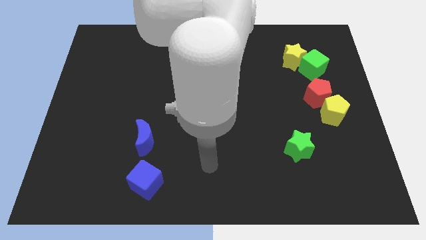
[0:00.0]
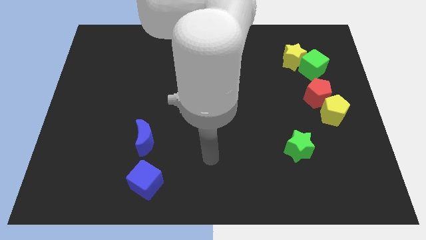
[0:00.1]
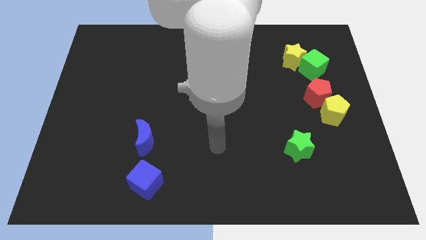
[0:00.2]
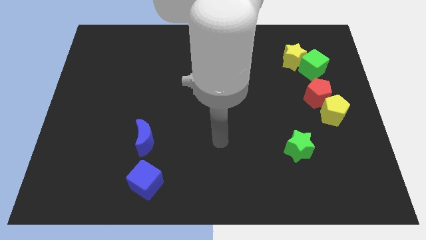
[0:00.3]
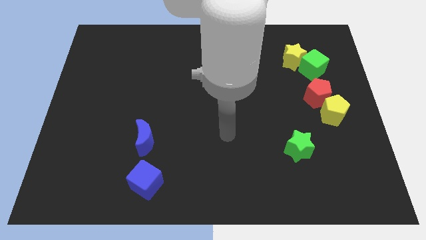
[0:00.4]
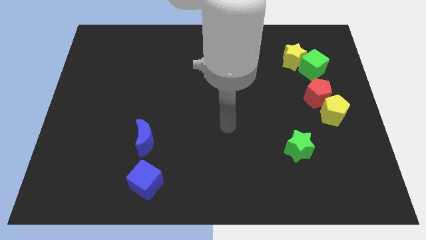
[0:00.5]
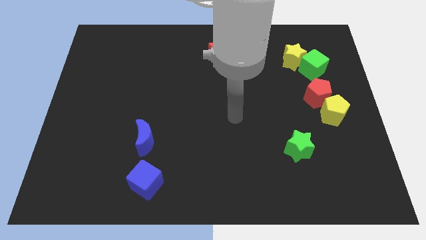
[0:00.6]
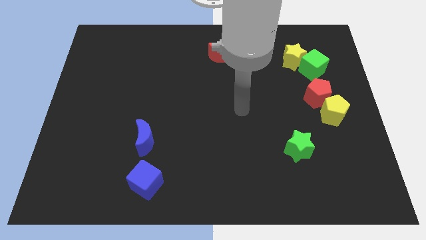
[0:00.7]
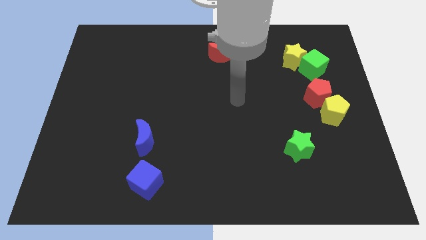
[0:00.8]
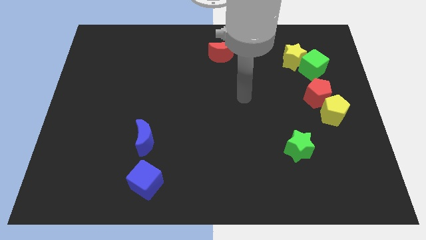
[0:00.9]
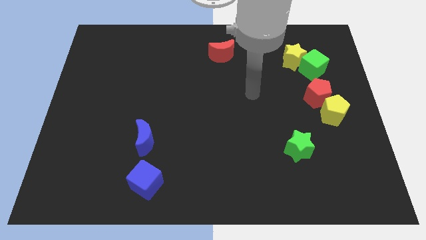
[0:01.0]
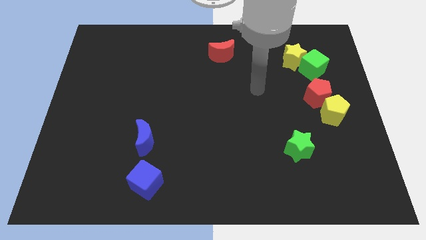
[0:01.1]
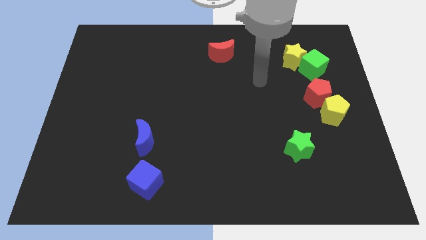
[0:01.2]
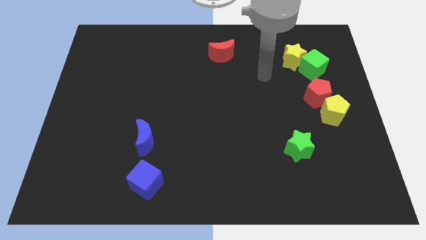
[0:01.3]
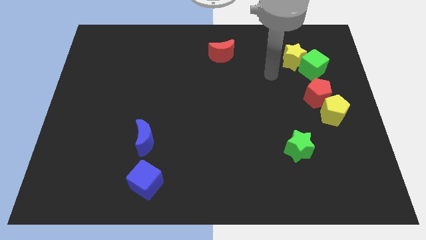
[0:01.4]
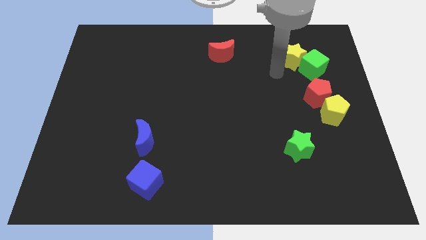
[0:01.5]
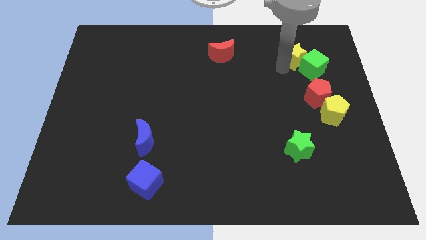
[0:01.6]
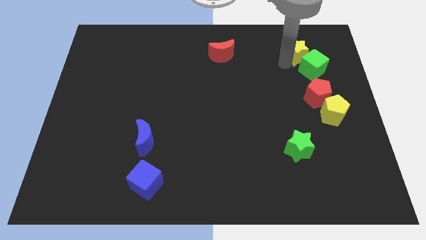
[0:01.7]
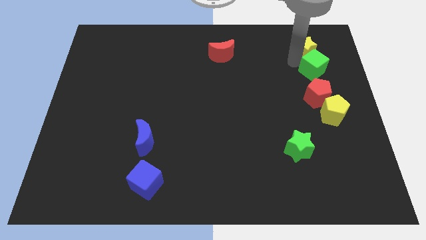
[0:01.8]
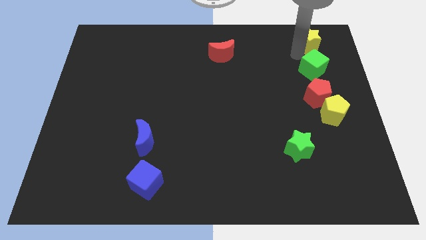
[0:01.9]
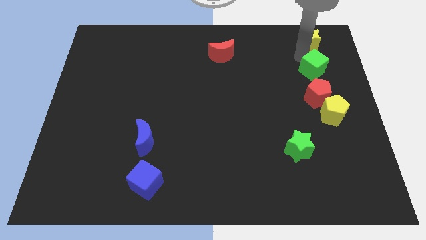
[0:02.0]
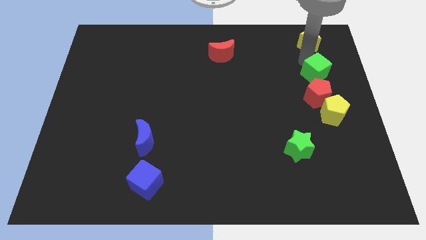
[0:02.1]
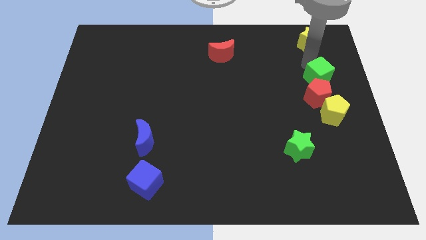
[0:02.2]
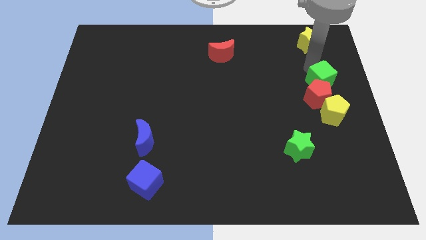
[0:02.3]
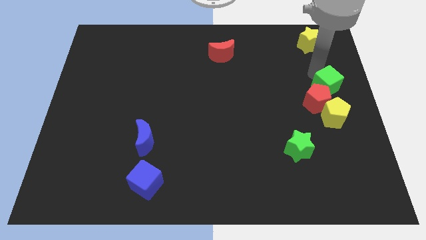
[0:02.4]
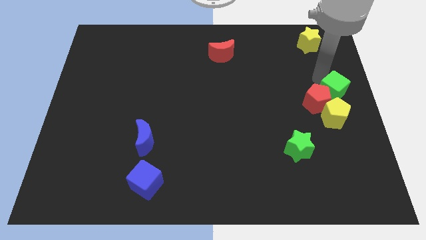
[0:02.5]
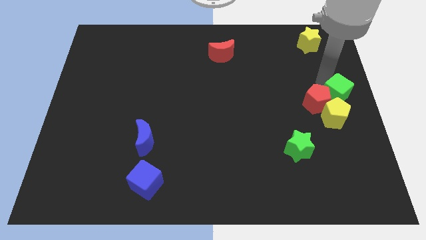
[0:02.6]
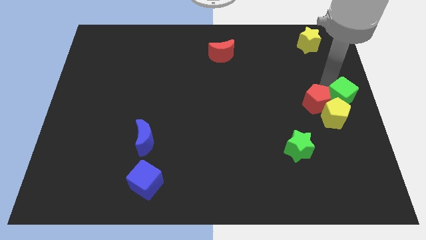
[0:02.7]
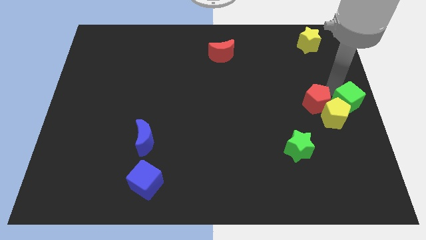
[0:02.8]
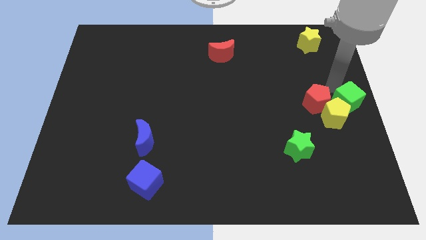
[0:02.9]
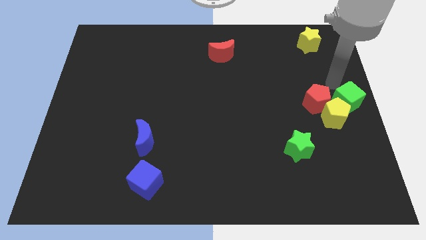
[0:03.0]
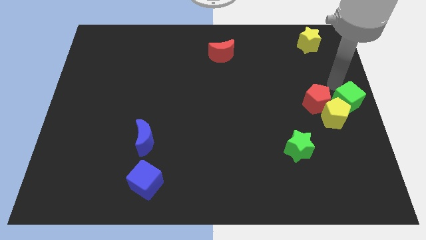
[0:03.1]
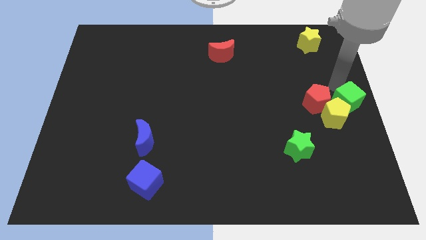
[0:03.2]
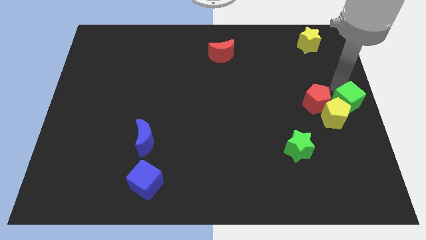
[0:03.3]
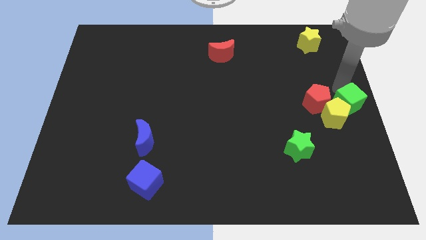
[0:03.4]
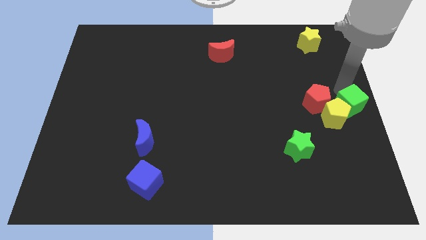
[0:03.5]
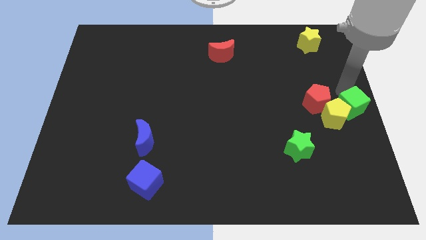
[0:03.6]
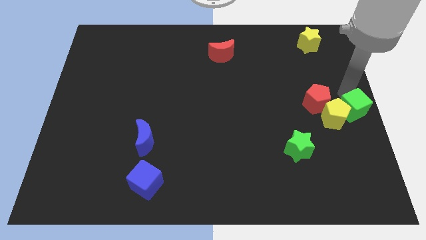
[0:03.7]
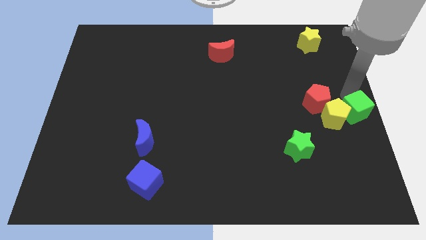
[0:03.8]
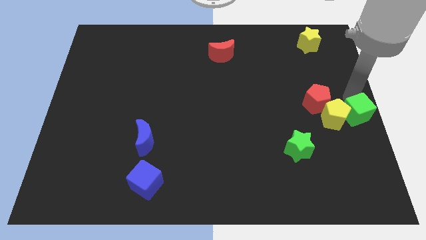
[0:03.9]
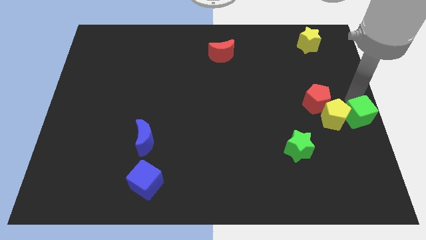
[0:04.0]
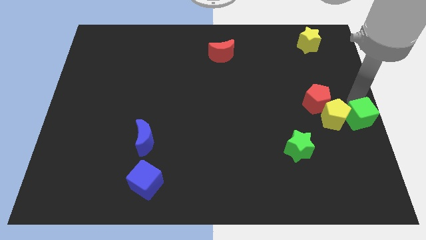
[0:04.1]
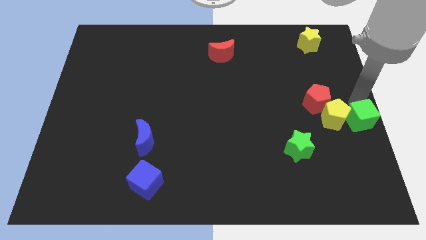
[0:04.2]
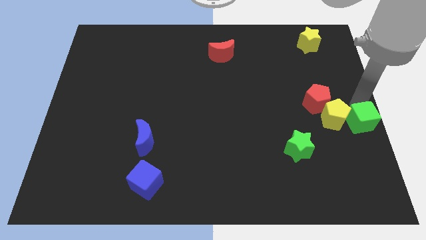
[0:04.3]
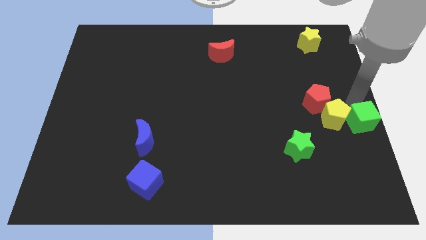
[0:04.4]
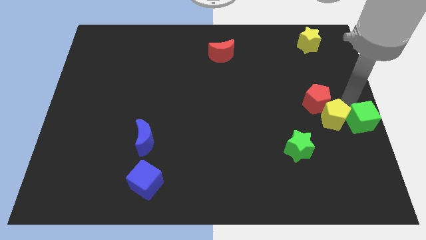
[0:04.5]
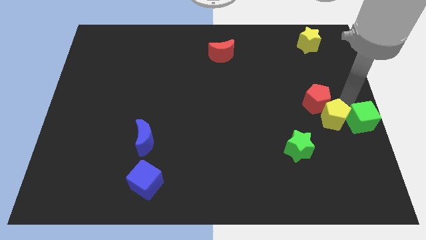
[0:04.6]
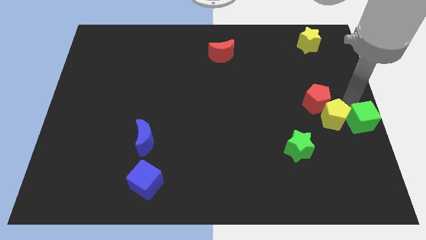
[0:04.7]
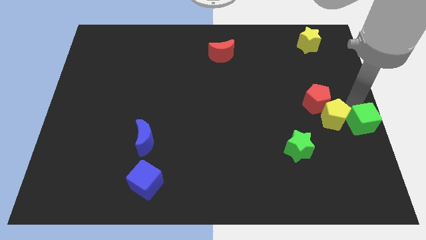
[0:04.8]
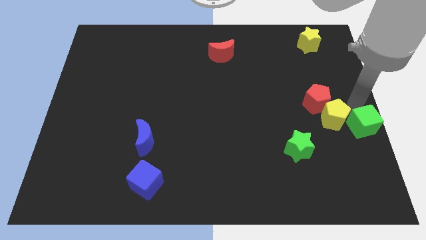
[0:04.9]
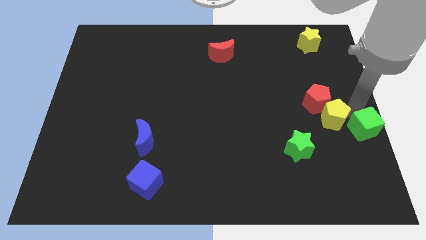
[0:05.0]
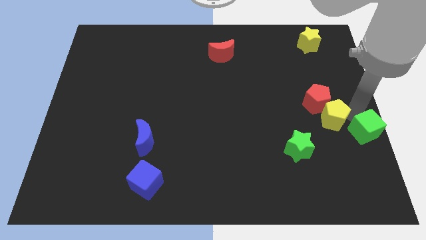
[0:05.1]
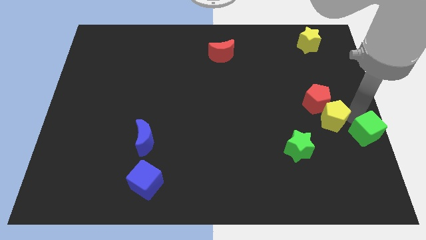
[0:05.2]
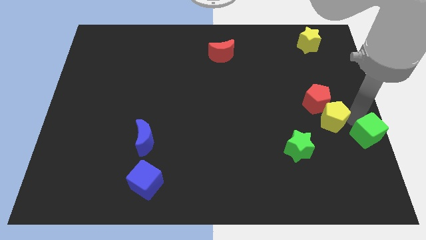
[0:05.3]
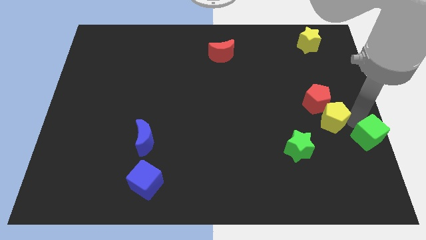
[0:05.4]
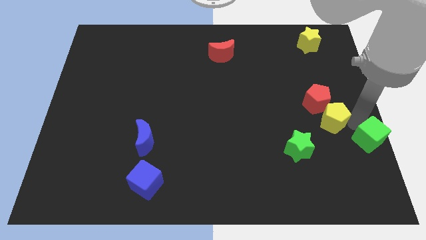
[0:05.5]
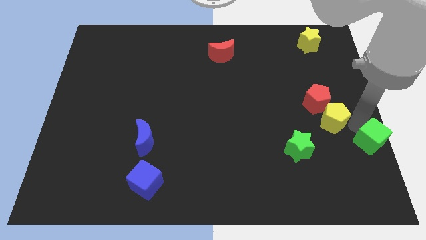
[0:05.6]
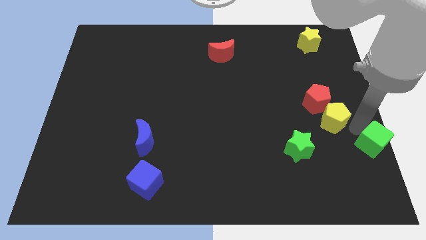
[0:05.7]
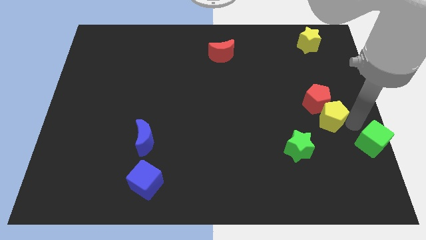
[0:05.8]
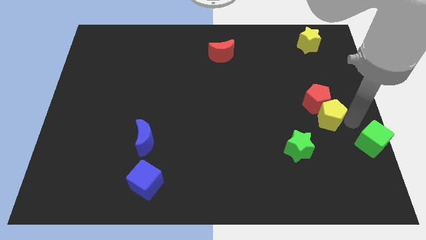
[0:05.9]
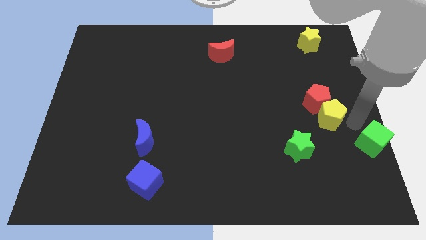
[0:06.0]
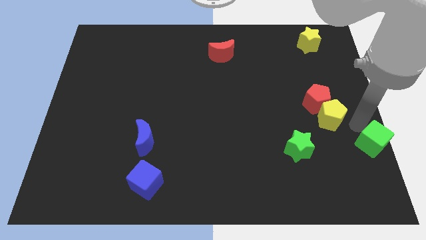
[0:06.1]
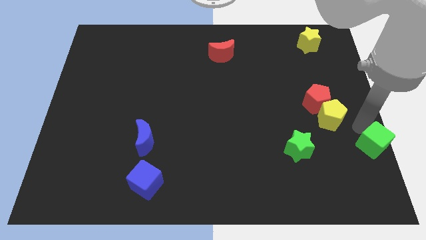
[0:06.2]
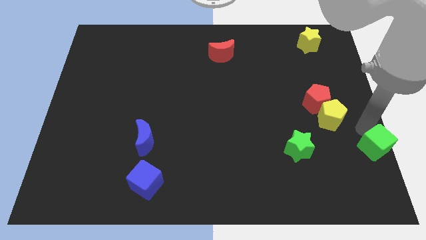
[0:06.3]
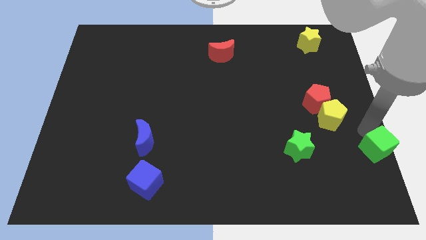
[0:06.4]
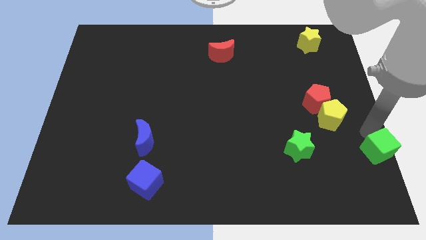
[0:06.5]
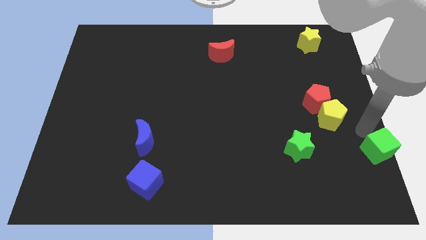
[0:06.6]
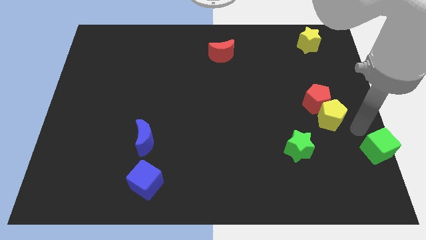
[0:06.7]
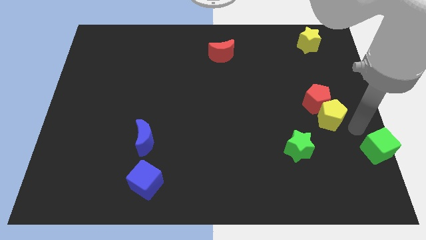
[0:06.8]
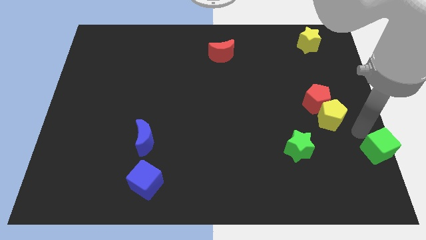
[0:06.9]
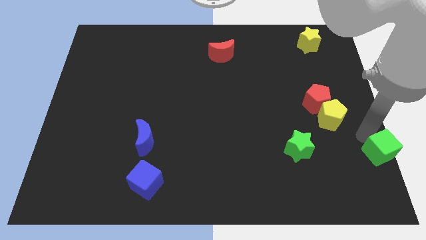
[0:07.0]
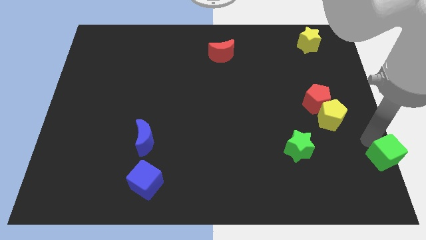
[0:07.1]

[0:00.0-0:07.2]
slide the green cube to the bottom right
